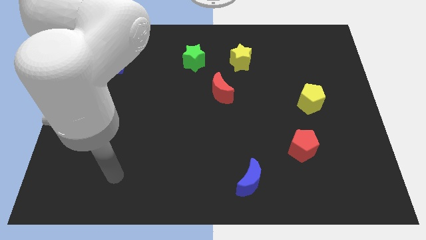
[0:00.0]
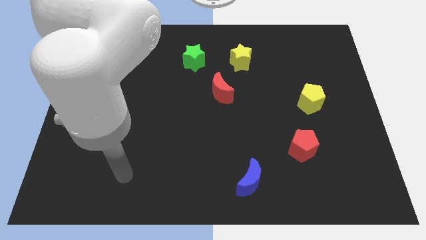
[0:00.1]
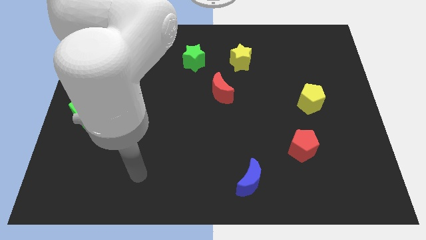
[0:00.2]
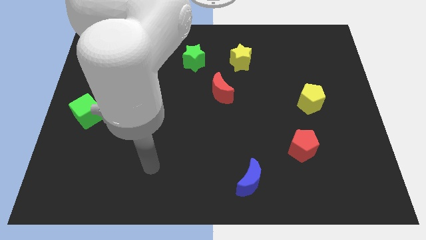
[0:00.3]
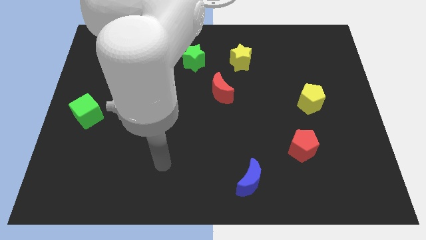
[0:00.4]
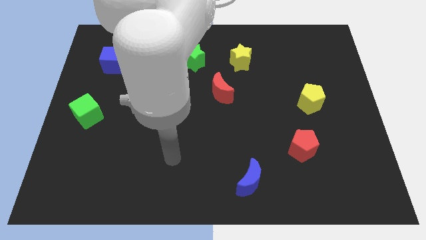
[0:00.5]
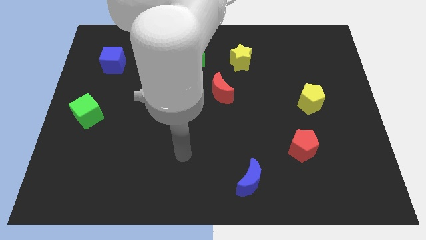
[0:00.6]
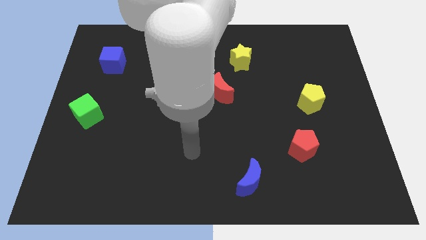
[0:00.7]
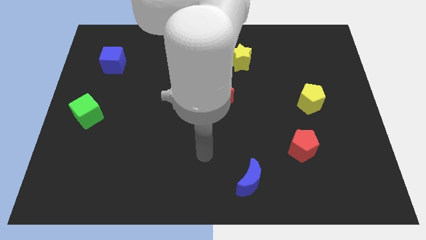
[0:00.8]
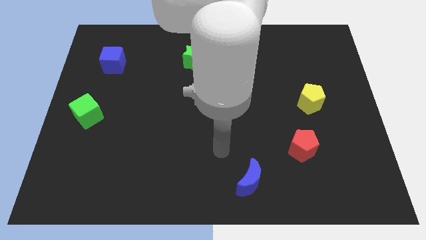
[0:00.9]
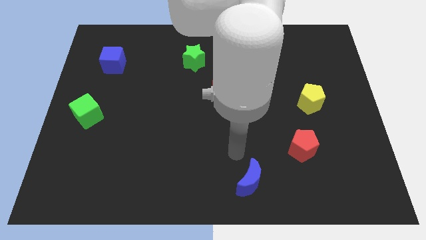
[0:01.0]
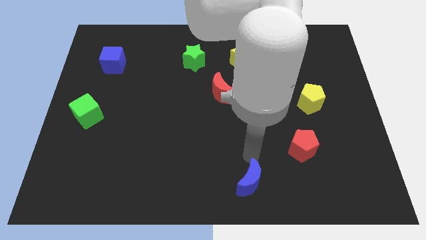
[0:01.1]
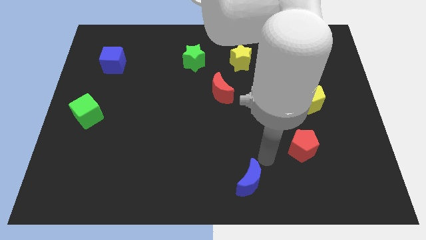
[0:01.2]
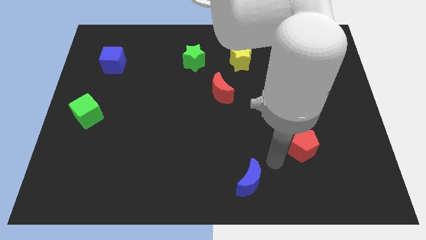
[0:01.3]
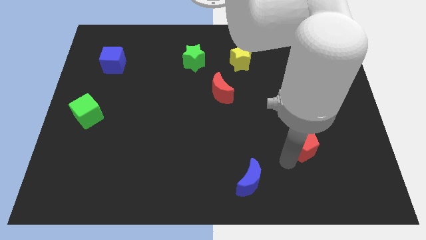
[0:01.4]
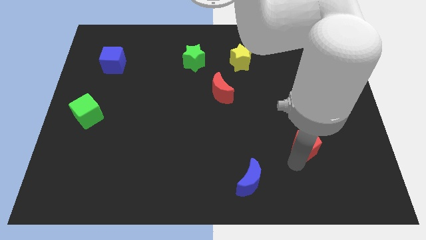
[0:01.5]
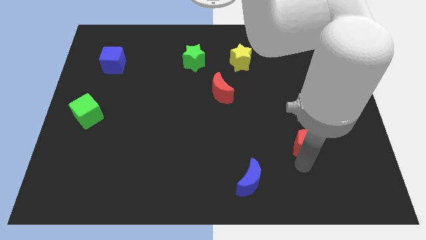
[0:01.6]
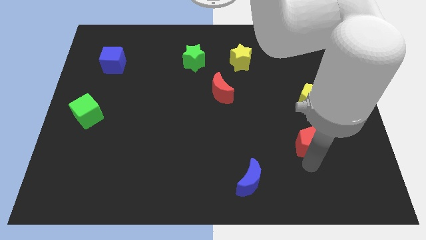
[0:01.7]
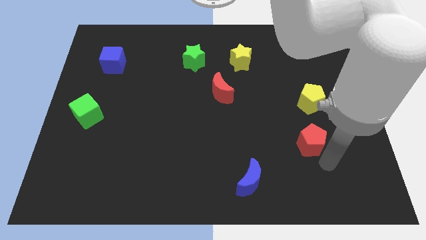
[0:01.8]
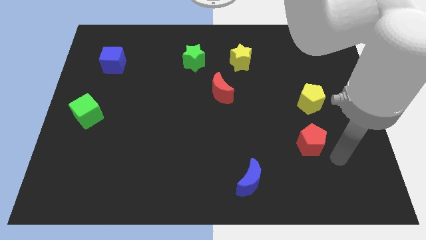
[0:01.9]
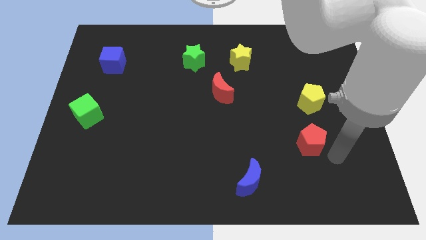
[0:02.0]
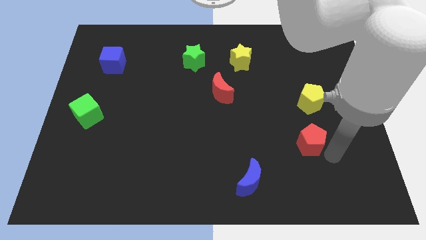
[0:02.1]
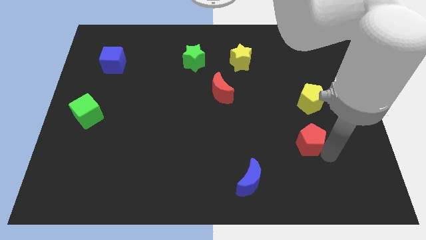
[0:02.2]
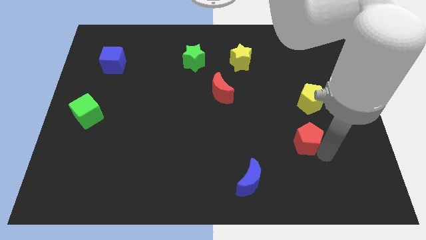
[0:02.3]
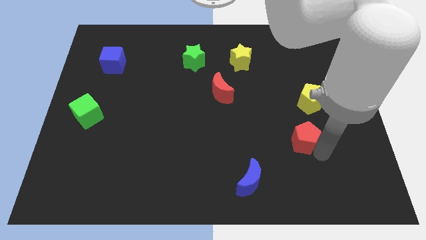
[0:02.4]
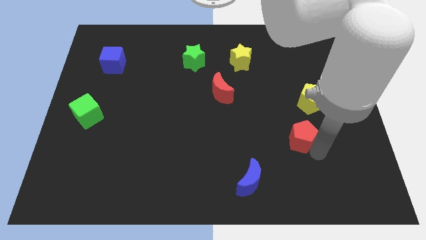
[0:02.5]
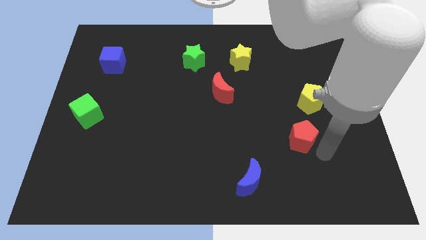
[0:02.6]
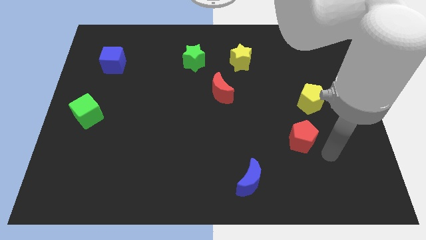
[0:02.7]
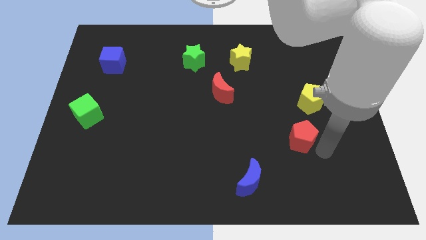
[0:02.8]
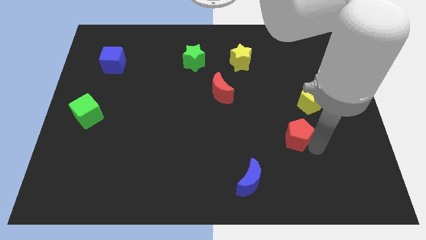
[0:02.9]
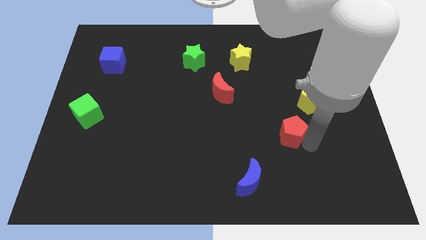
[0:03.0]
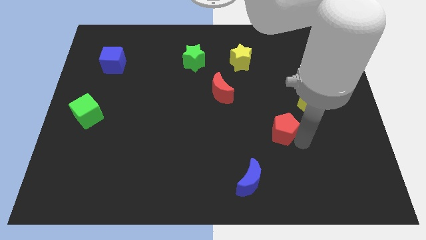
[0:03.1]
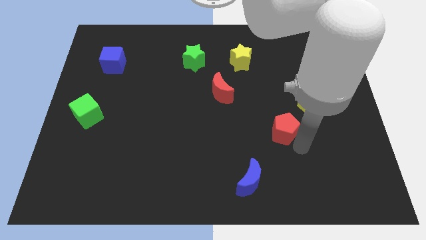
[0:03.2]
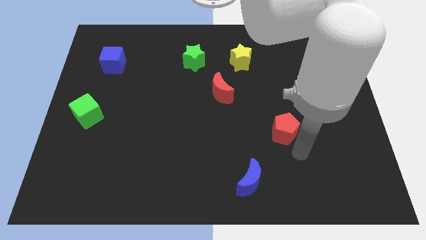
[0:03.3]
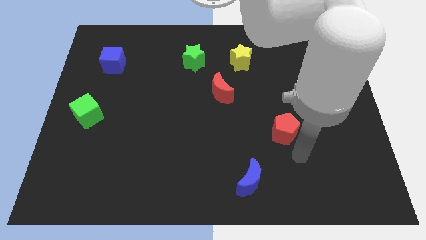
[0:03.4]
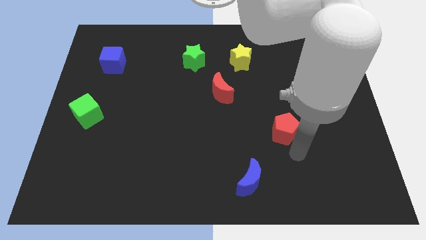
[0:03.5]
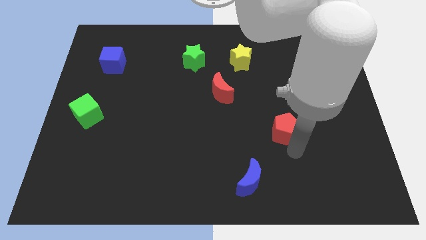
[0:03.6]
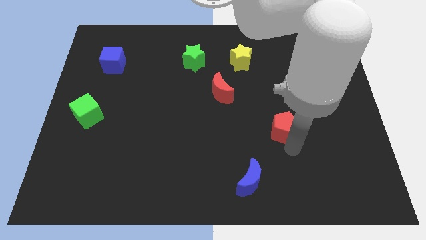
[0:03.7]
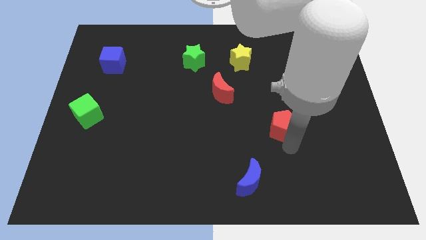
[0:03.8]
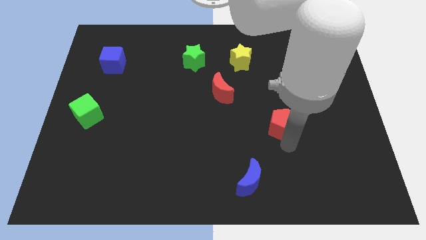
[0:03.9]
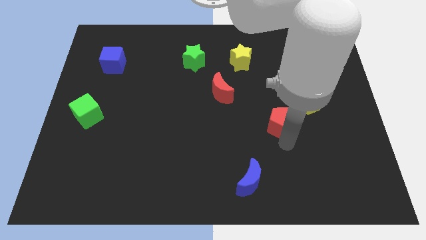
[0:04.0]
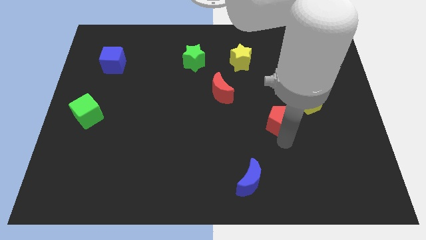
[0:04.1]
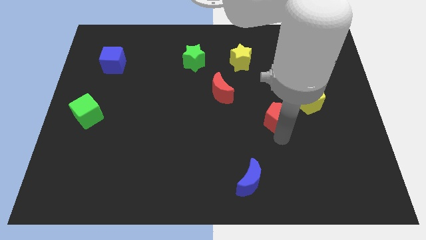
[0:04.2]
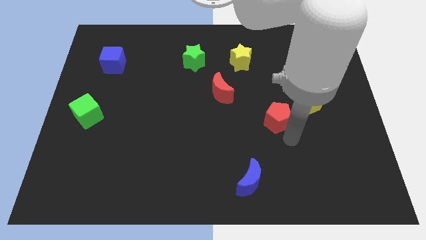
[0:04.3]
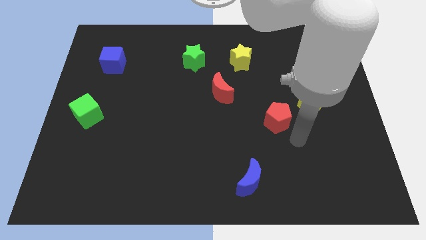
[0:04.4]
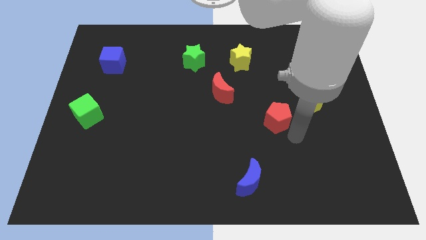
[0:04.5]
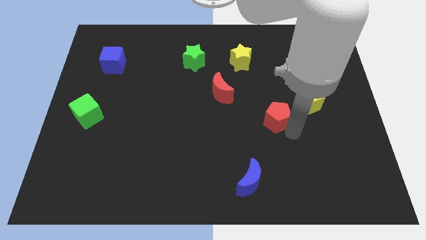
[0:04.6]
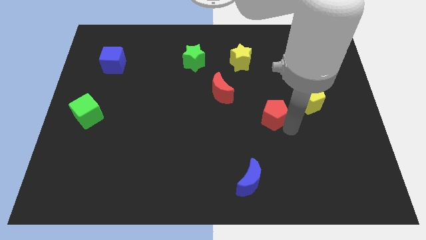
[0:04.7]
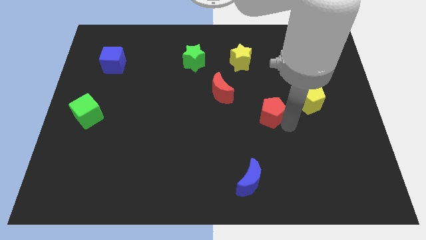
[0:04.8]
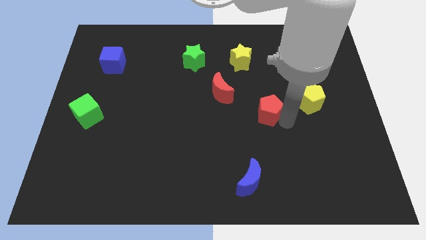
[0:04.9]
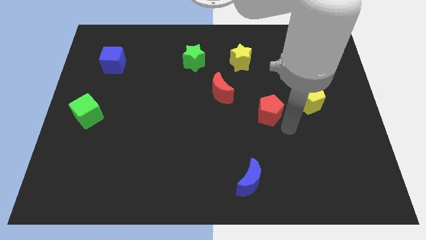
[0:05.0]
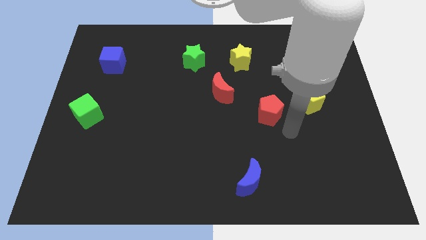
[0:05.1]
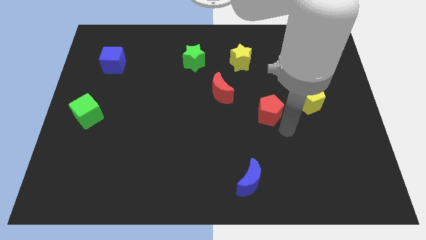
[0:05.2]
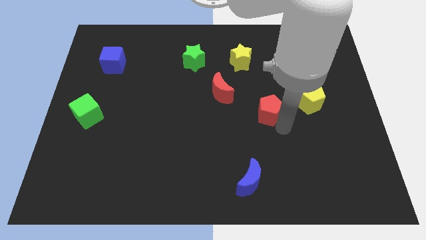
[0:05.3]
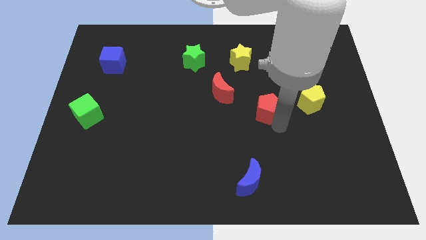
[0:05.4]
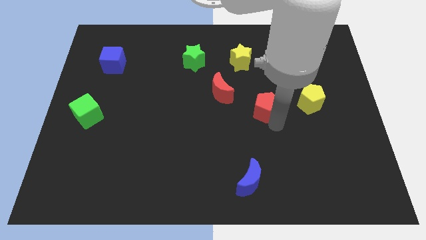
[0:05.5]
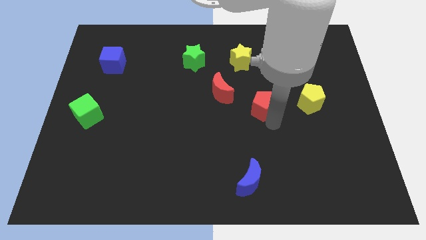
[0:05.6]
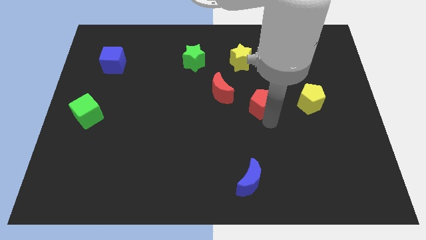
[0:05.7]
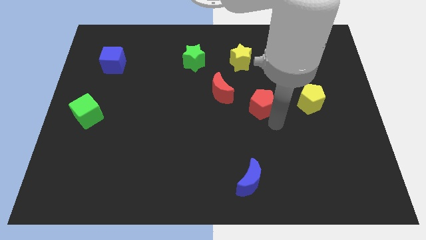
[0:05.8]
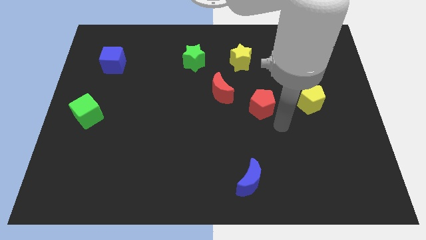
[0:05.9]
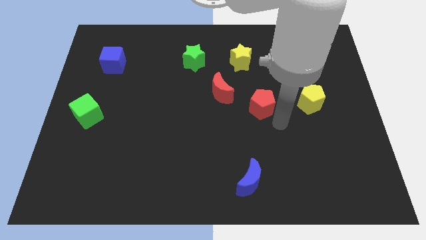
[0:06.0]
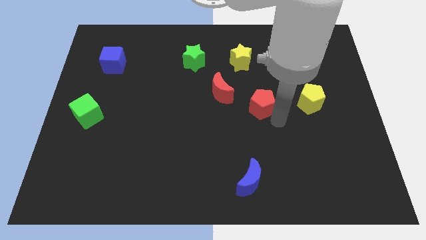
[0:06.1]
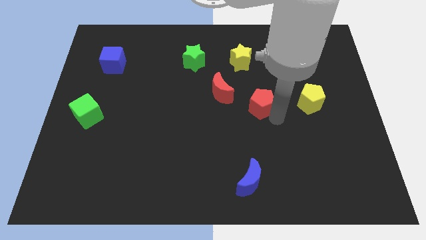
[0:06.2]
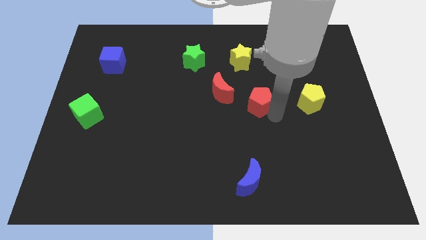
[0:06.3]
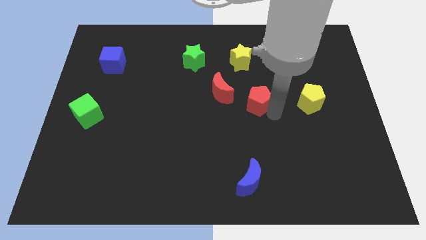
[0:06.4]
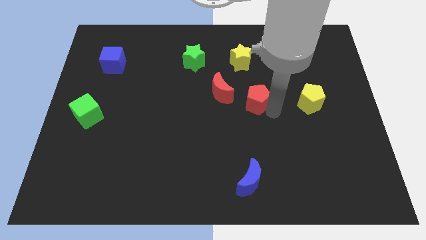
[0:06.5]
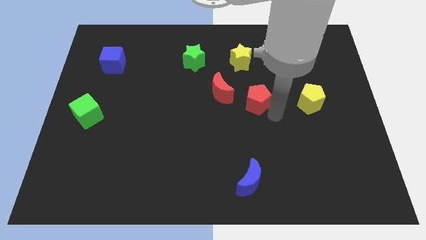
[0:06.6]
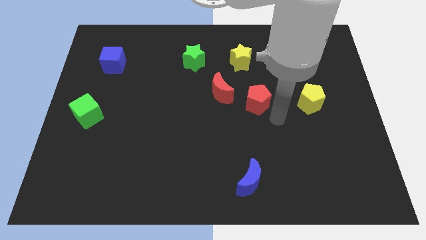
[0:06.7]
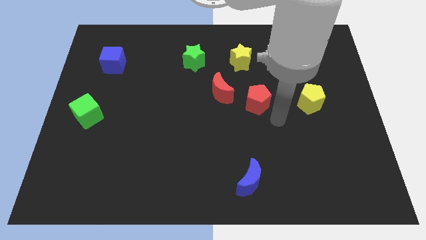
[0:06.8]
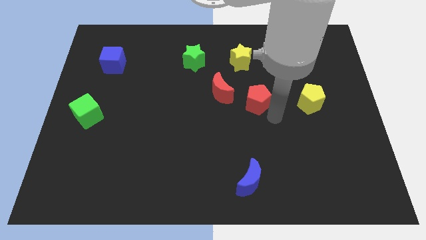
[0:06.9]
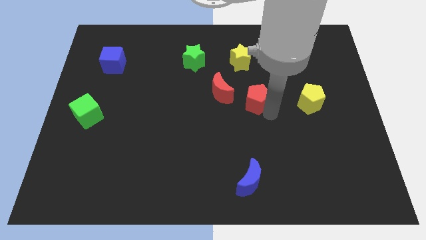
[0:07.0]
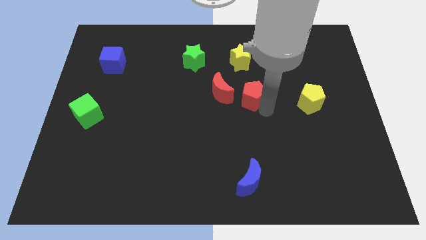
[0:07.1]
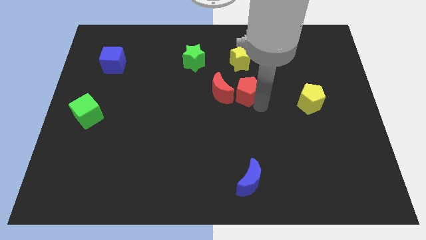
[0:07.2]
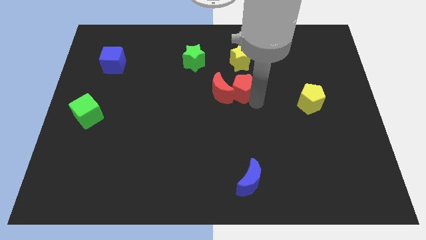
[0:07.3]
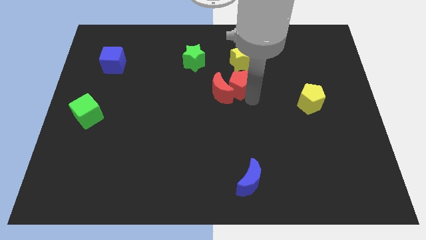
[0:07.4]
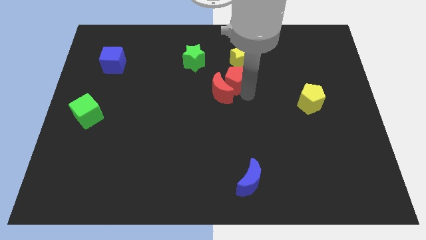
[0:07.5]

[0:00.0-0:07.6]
push the red pentagon to the bottom left side of the yellow star
